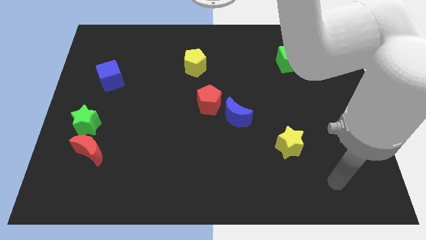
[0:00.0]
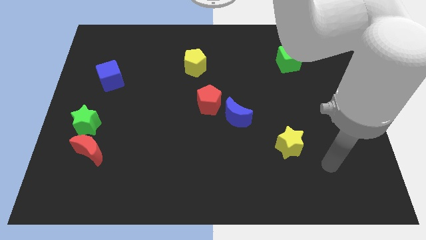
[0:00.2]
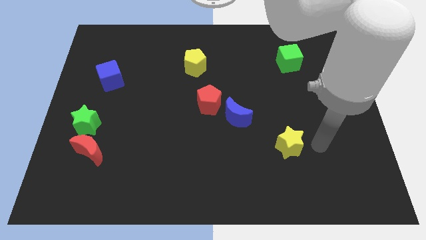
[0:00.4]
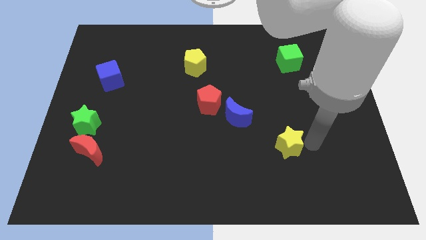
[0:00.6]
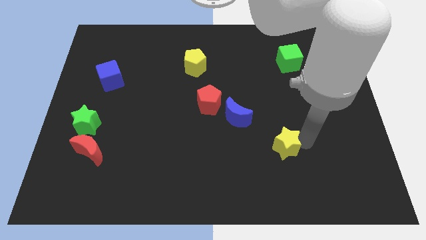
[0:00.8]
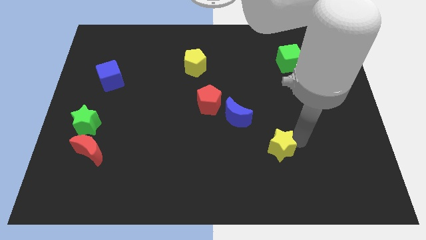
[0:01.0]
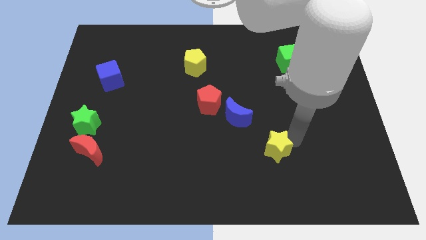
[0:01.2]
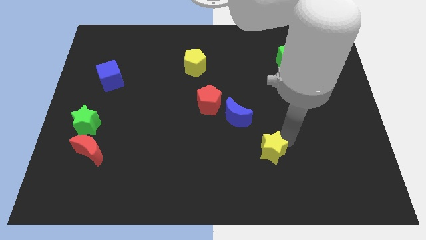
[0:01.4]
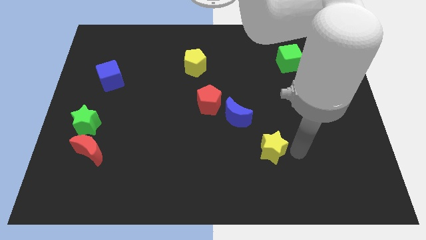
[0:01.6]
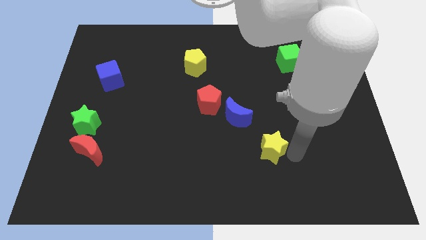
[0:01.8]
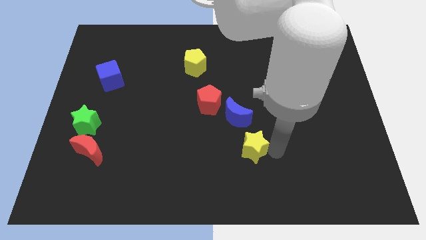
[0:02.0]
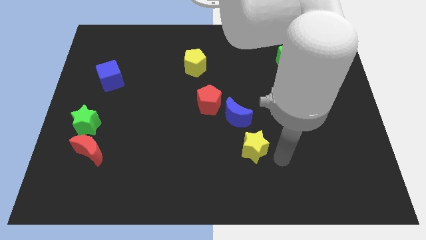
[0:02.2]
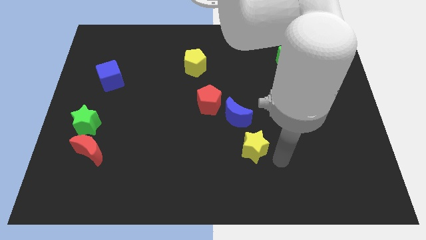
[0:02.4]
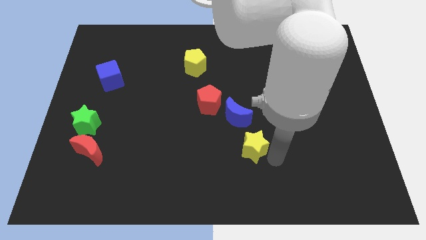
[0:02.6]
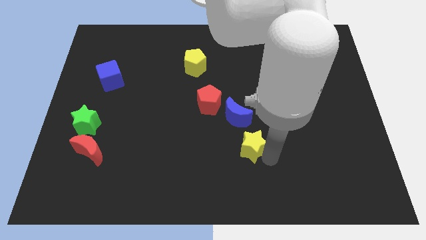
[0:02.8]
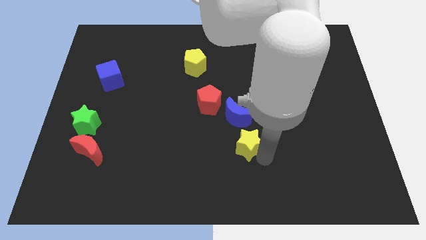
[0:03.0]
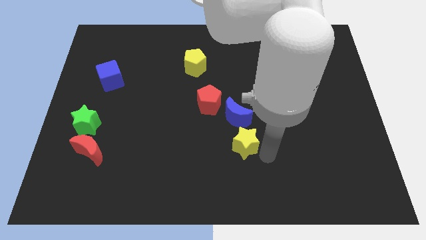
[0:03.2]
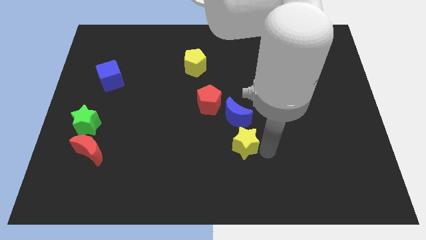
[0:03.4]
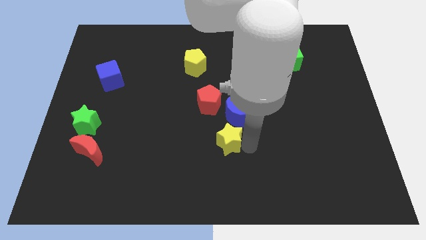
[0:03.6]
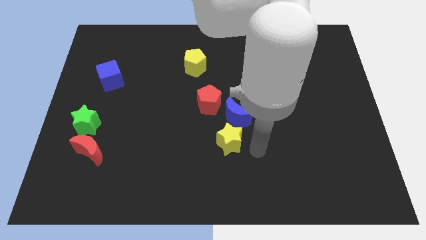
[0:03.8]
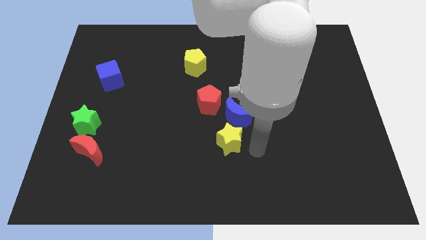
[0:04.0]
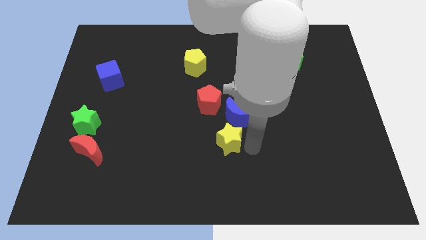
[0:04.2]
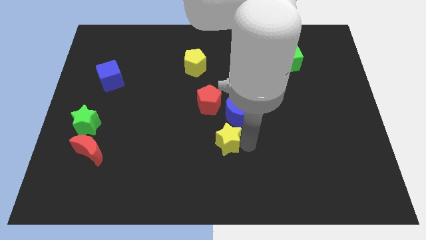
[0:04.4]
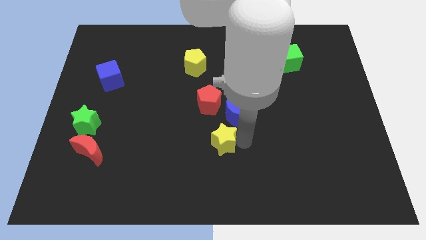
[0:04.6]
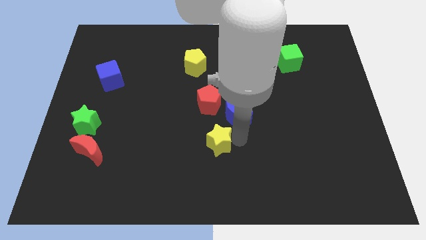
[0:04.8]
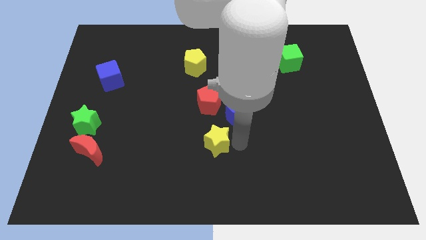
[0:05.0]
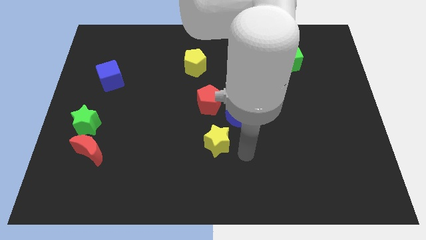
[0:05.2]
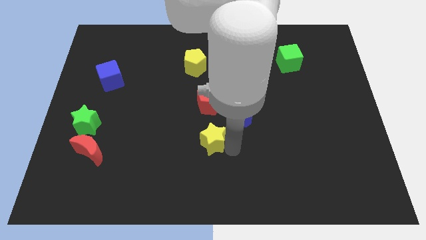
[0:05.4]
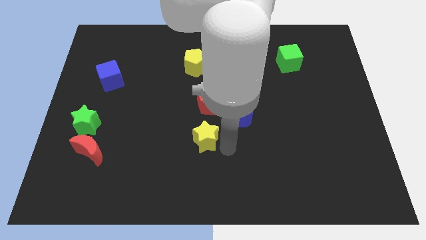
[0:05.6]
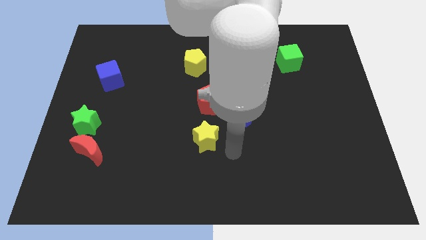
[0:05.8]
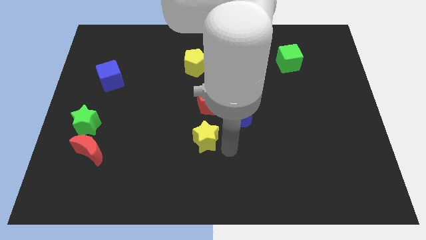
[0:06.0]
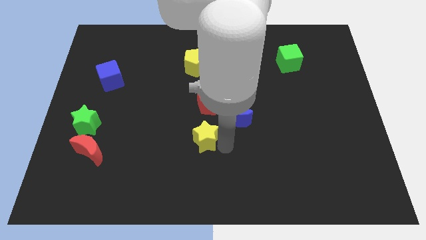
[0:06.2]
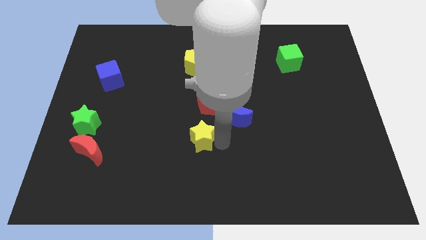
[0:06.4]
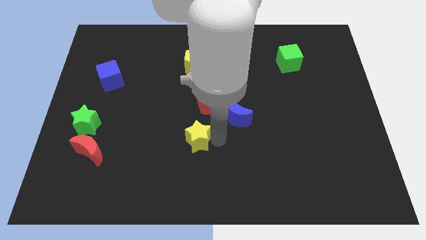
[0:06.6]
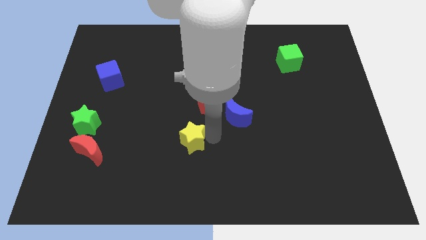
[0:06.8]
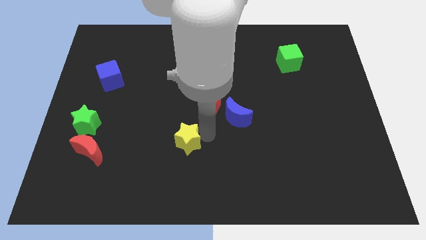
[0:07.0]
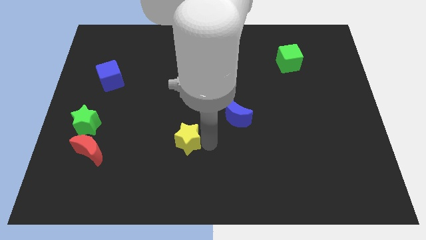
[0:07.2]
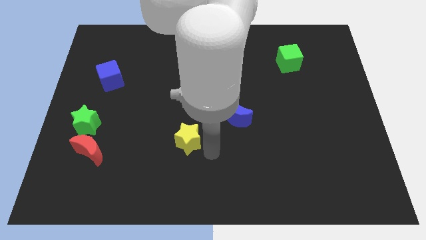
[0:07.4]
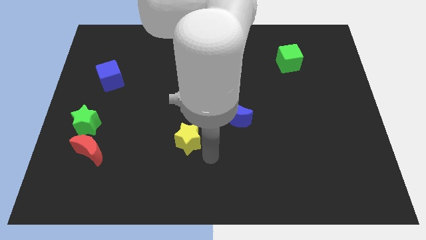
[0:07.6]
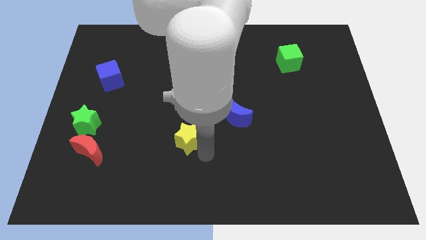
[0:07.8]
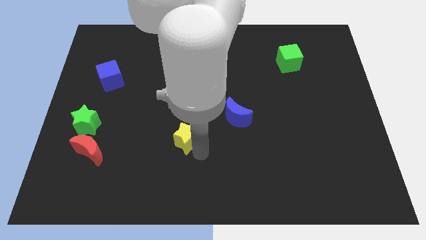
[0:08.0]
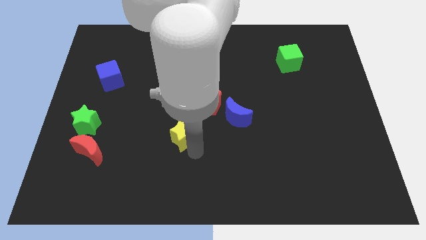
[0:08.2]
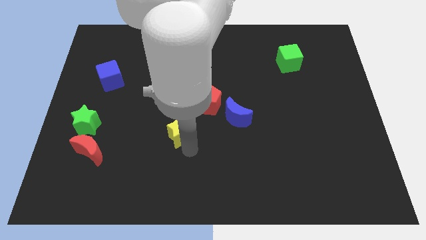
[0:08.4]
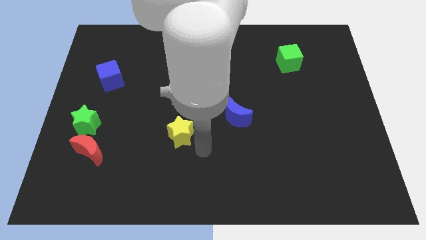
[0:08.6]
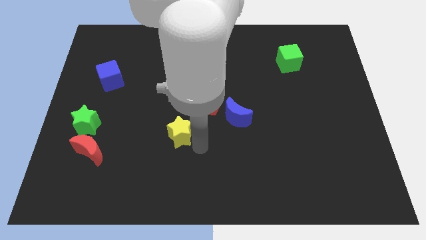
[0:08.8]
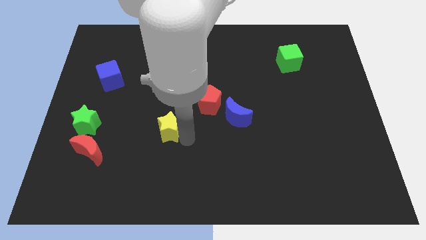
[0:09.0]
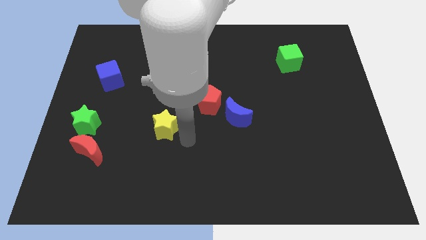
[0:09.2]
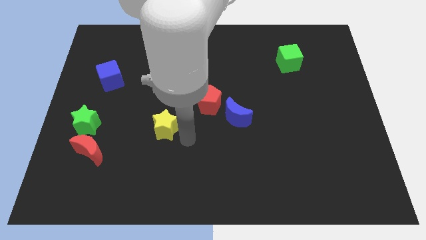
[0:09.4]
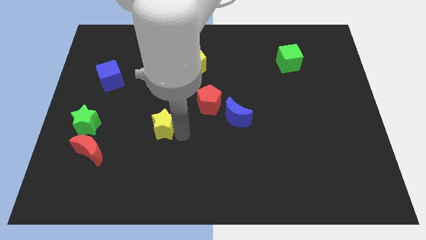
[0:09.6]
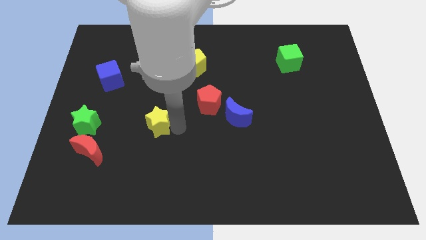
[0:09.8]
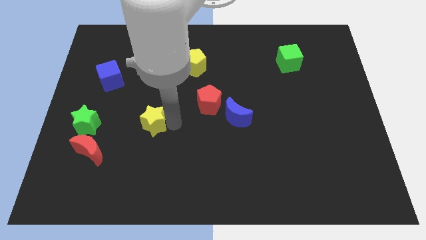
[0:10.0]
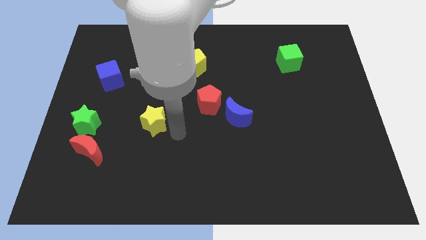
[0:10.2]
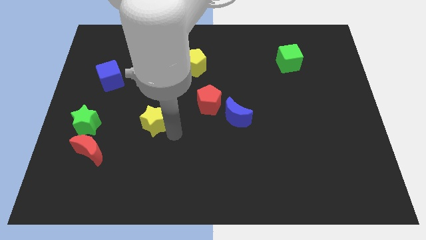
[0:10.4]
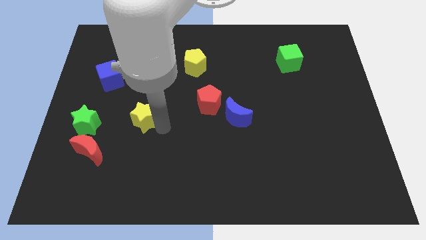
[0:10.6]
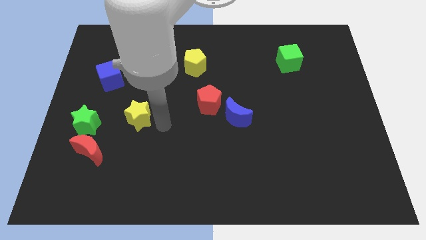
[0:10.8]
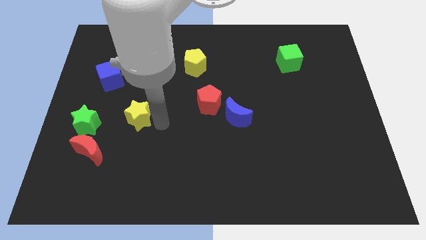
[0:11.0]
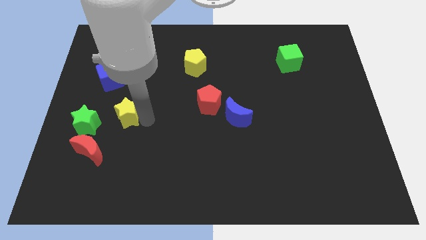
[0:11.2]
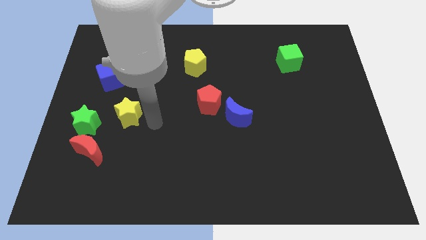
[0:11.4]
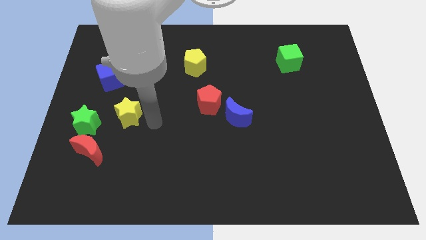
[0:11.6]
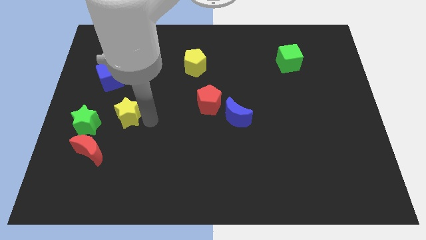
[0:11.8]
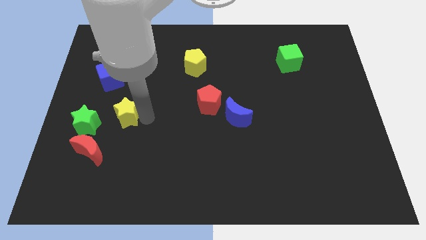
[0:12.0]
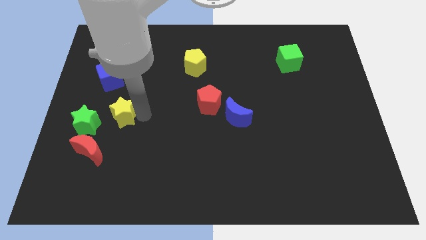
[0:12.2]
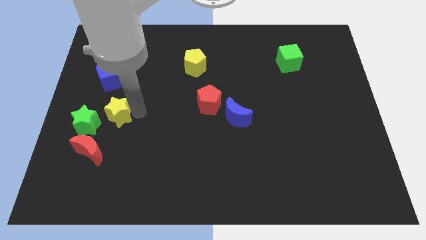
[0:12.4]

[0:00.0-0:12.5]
put the yellow star above the red moon

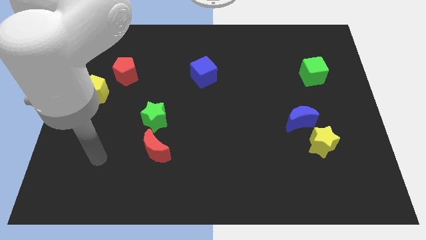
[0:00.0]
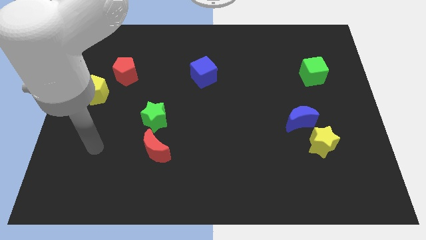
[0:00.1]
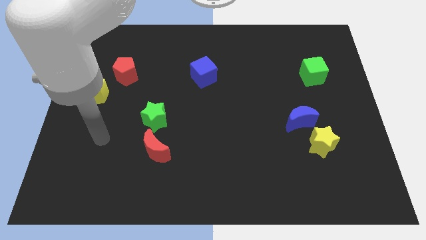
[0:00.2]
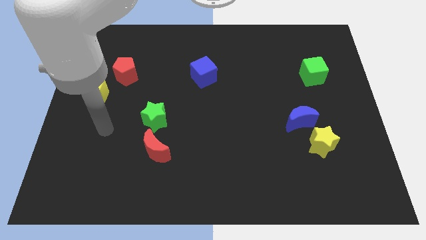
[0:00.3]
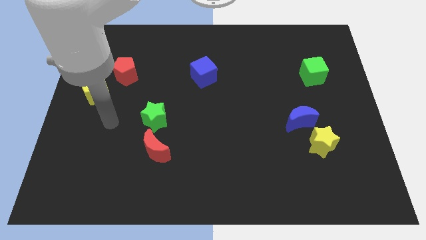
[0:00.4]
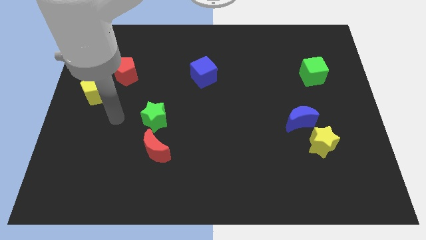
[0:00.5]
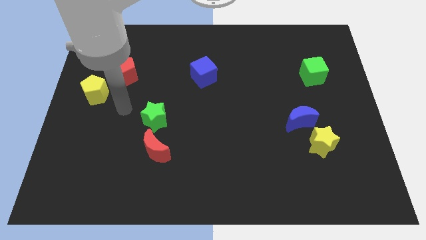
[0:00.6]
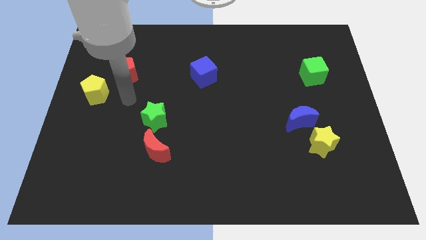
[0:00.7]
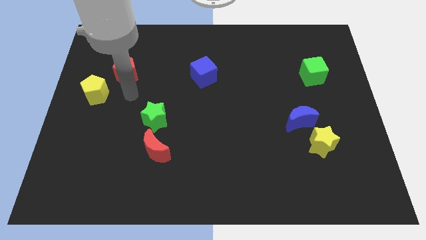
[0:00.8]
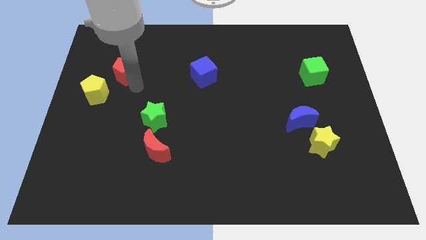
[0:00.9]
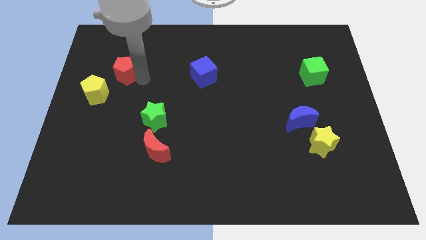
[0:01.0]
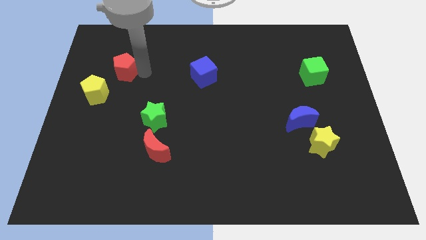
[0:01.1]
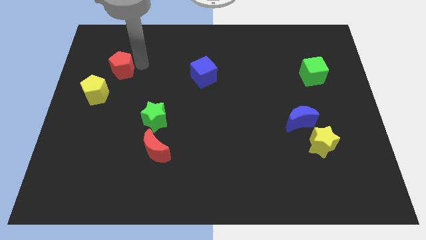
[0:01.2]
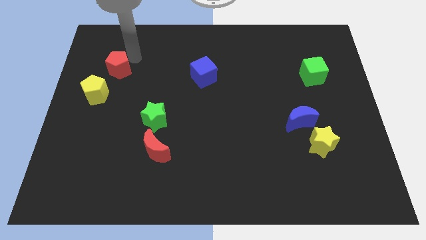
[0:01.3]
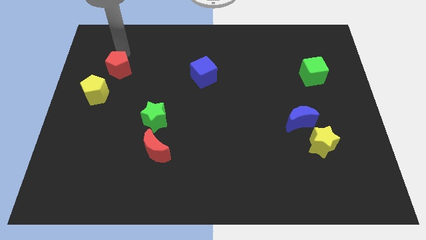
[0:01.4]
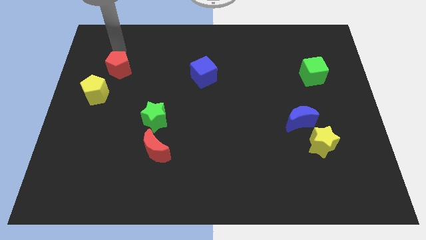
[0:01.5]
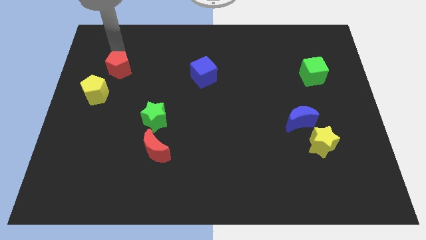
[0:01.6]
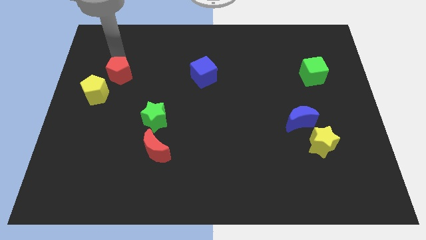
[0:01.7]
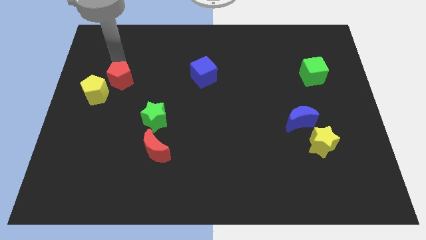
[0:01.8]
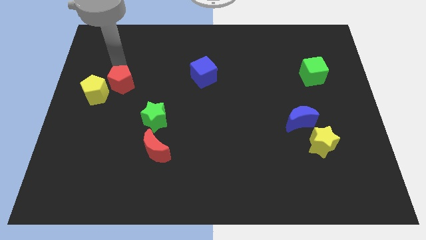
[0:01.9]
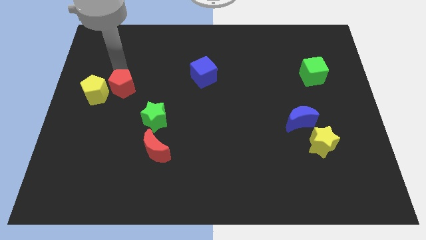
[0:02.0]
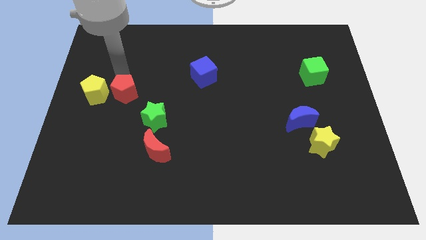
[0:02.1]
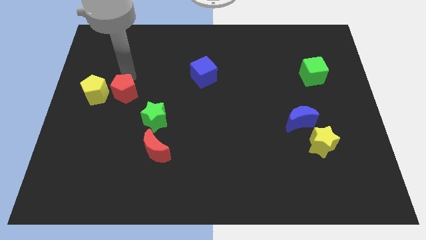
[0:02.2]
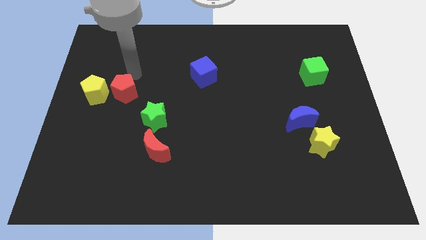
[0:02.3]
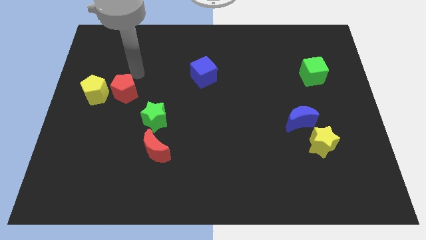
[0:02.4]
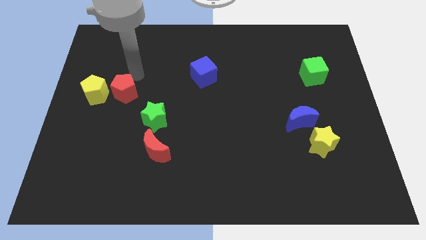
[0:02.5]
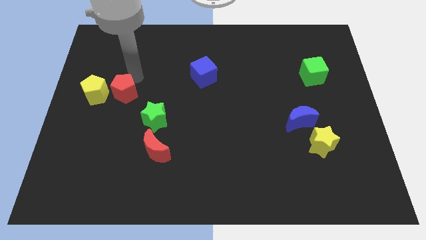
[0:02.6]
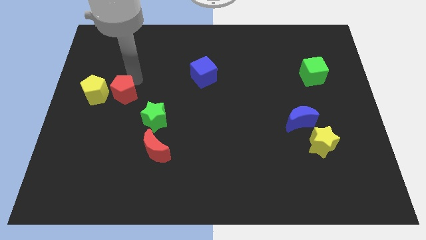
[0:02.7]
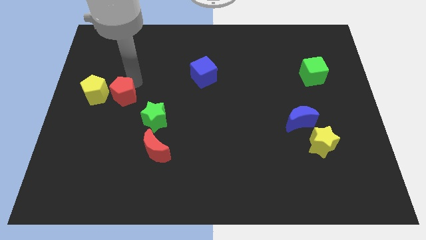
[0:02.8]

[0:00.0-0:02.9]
push the red pentagon diagonally down and to the right of the yellow pentagon
